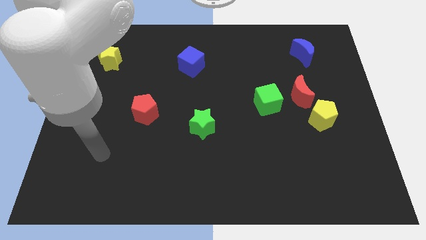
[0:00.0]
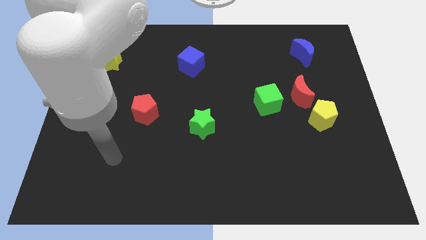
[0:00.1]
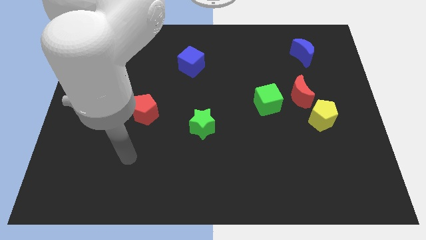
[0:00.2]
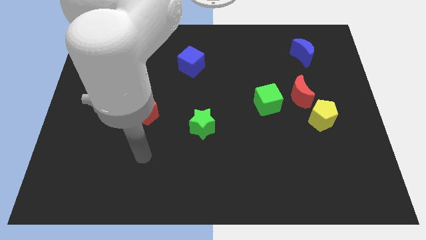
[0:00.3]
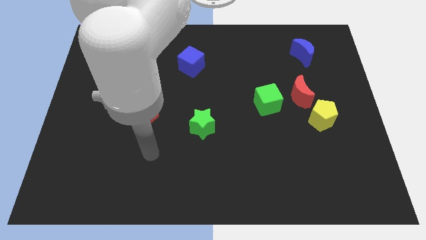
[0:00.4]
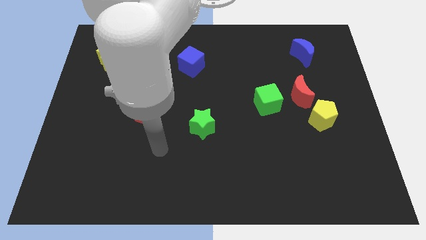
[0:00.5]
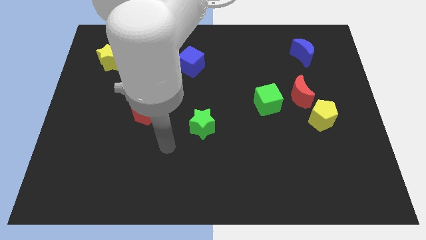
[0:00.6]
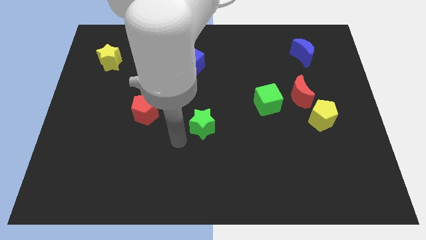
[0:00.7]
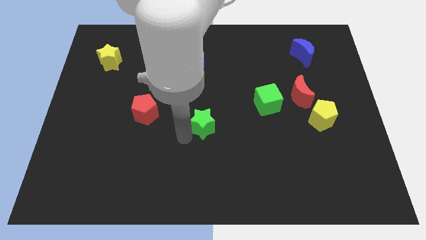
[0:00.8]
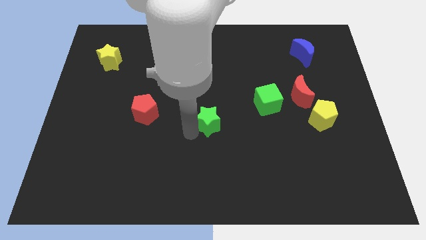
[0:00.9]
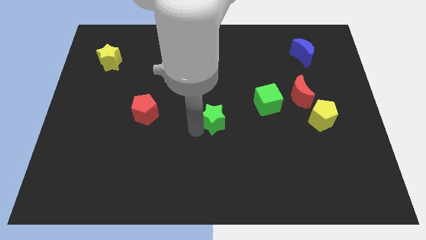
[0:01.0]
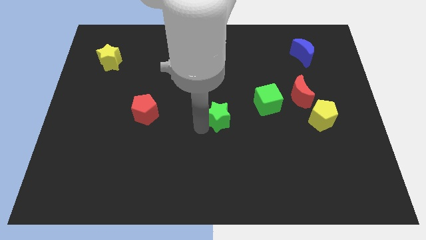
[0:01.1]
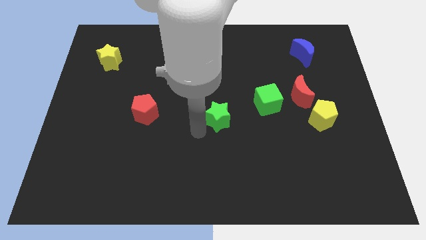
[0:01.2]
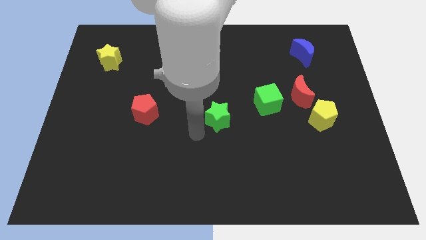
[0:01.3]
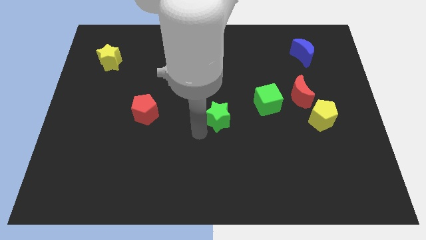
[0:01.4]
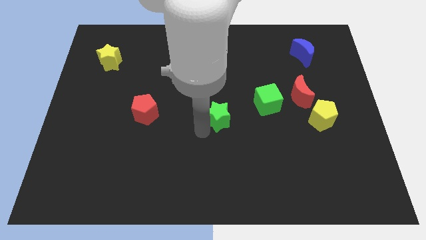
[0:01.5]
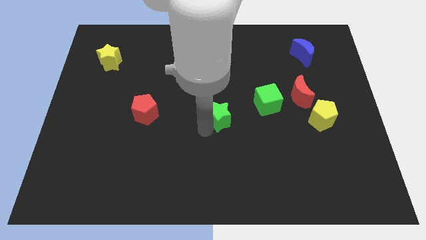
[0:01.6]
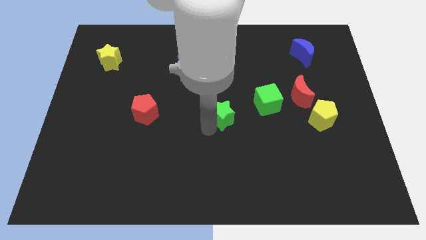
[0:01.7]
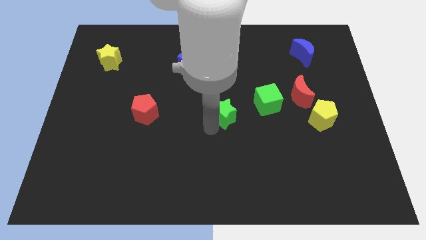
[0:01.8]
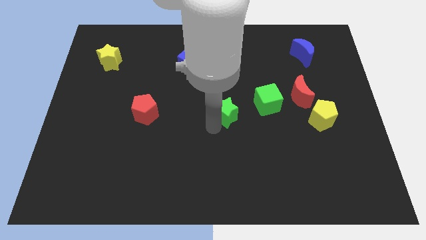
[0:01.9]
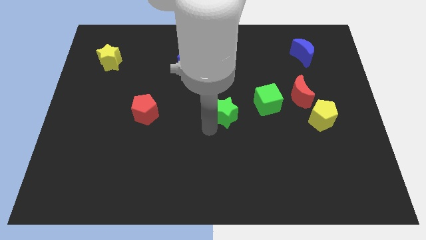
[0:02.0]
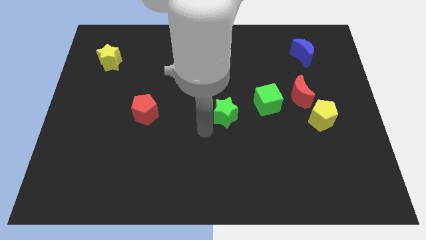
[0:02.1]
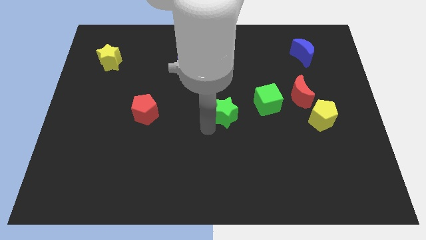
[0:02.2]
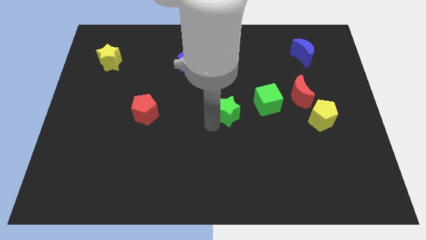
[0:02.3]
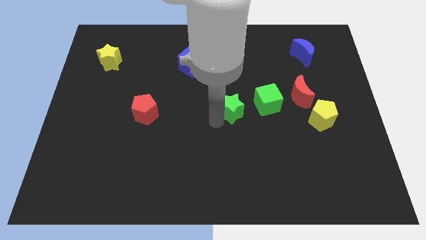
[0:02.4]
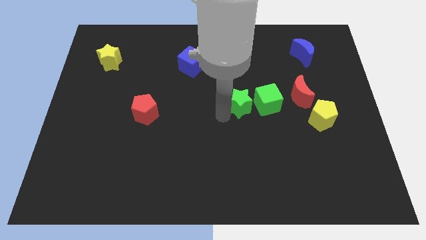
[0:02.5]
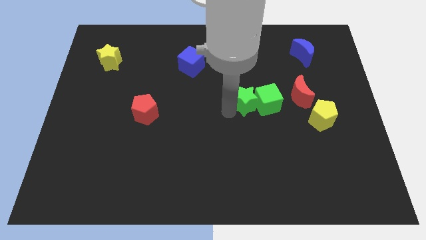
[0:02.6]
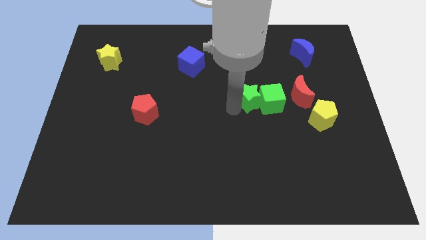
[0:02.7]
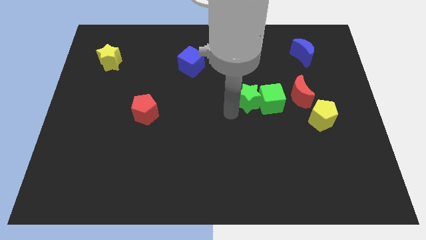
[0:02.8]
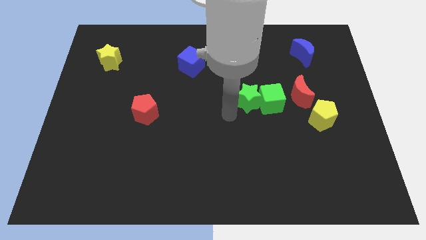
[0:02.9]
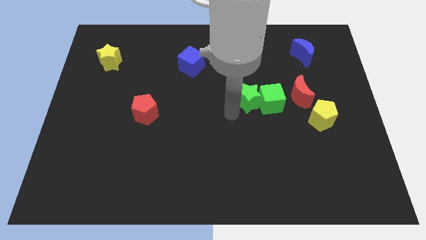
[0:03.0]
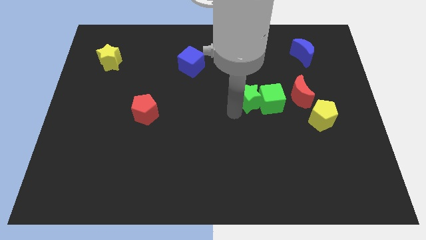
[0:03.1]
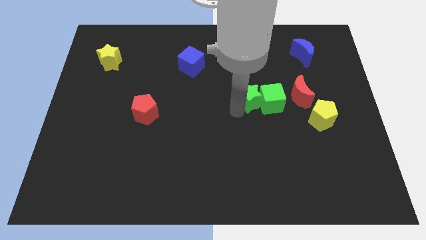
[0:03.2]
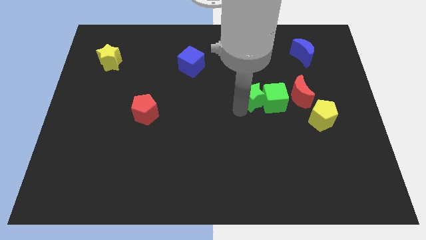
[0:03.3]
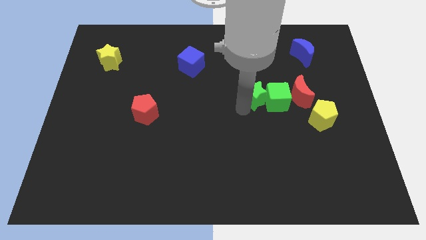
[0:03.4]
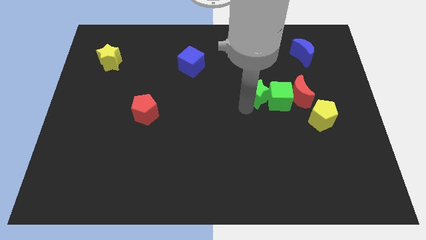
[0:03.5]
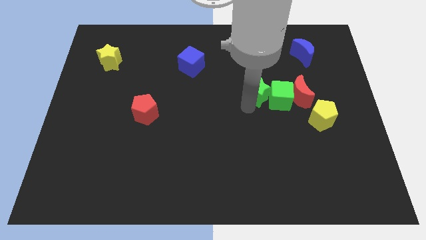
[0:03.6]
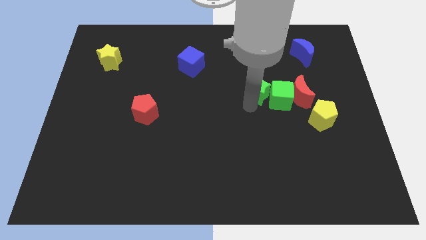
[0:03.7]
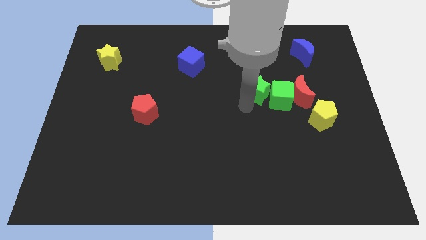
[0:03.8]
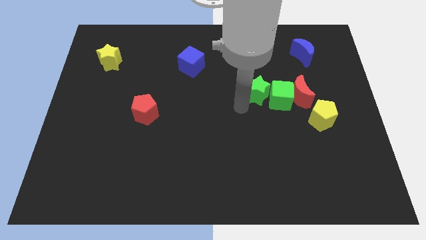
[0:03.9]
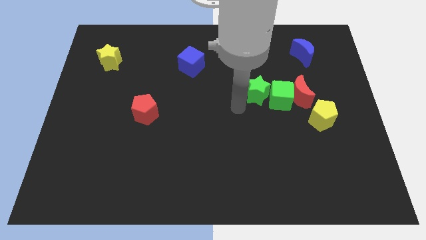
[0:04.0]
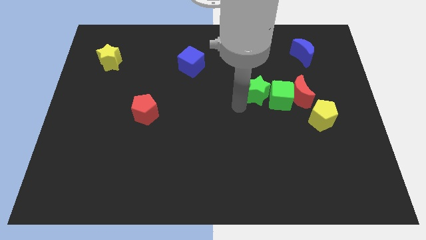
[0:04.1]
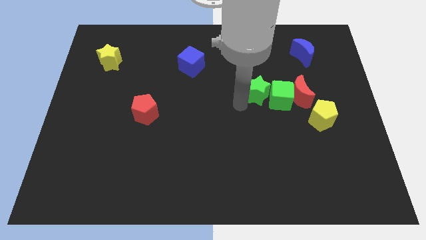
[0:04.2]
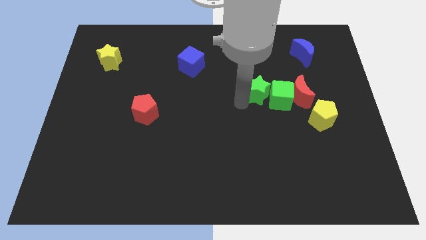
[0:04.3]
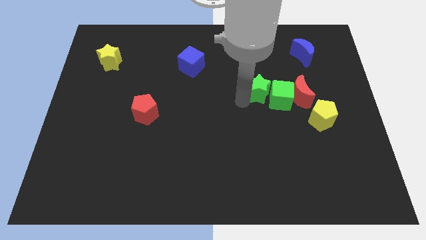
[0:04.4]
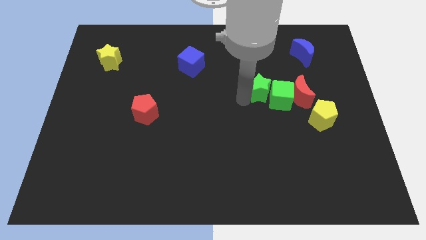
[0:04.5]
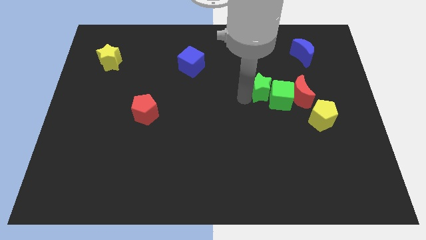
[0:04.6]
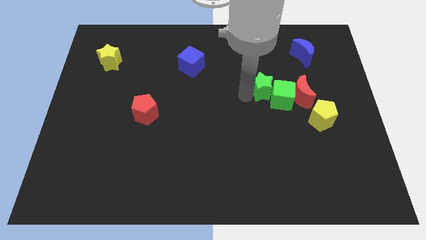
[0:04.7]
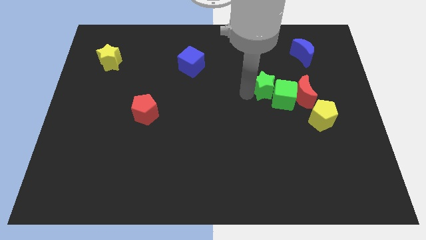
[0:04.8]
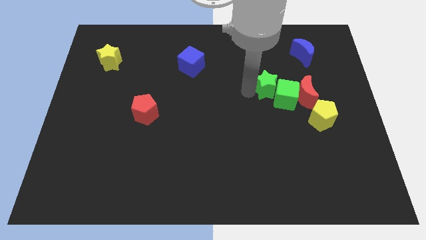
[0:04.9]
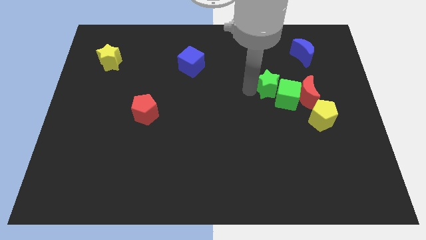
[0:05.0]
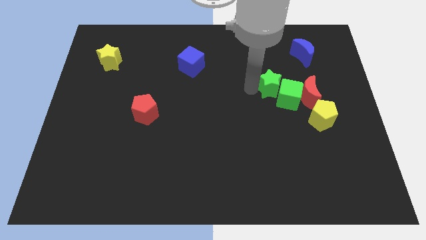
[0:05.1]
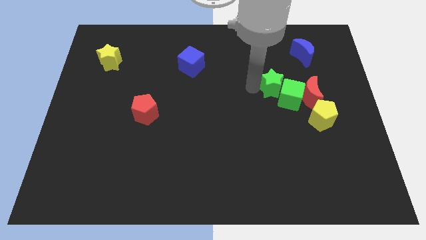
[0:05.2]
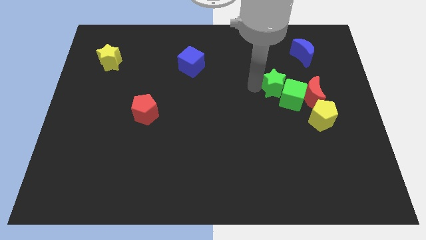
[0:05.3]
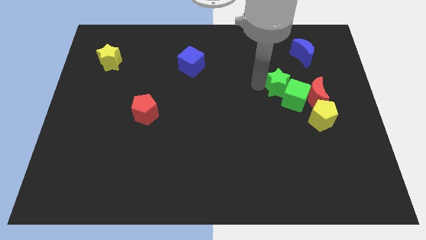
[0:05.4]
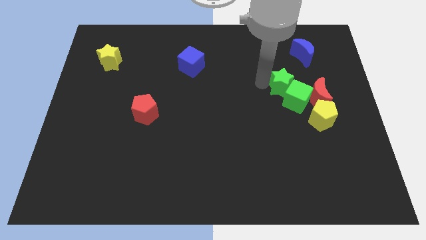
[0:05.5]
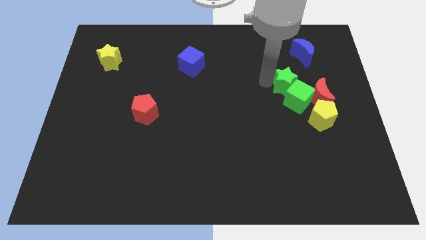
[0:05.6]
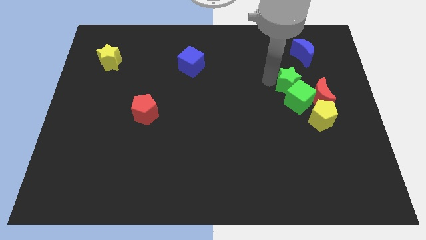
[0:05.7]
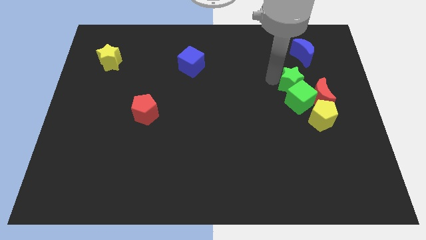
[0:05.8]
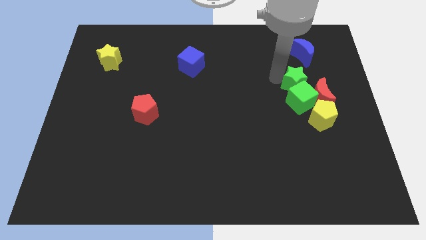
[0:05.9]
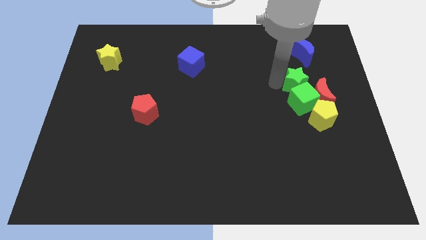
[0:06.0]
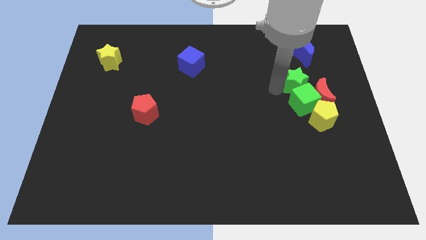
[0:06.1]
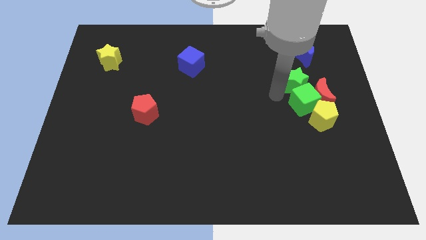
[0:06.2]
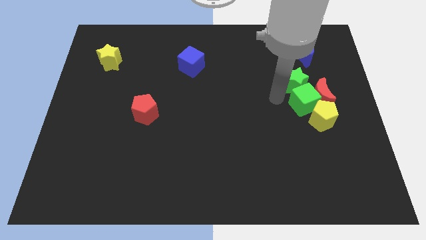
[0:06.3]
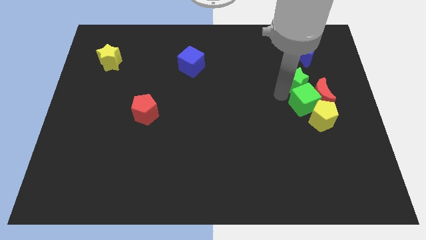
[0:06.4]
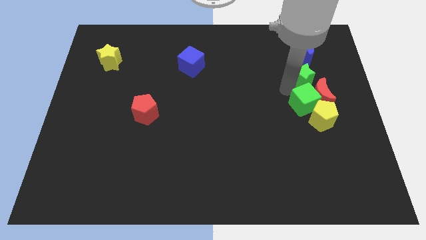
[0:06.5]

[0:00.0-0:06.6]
move the green star above the red moon
